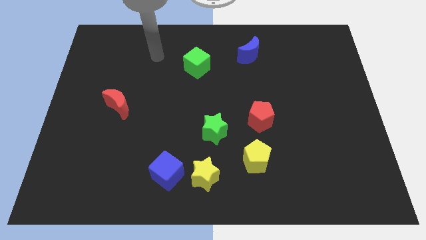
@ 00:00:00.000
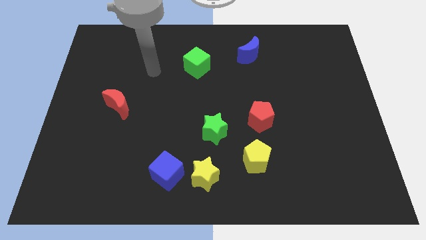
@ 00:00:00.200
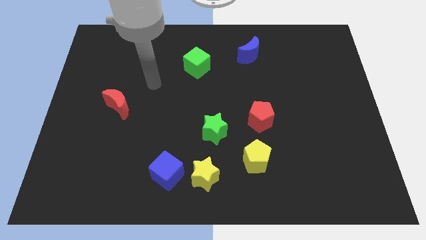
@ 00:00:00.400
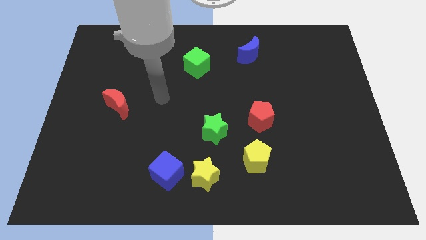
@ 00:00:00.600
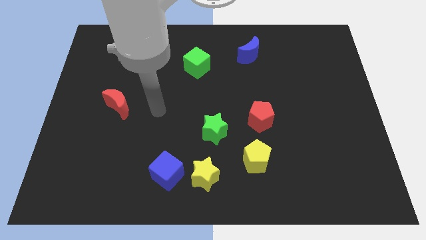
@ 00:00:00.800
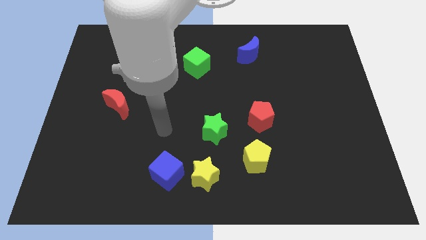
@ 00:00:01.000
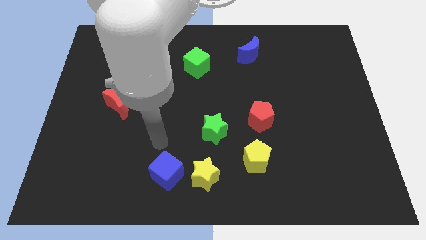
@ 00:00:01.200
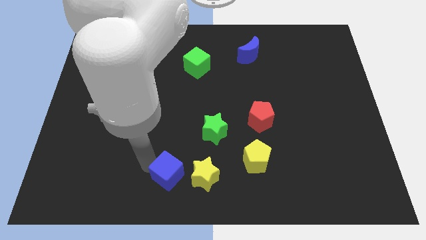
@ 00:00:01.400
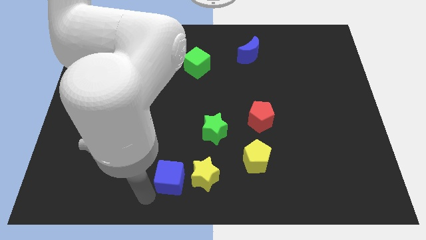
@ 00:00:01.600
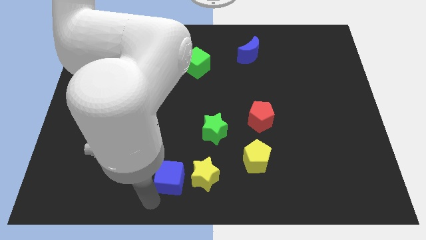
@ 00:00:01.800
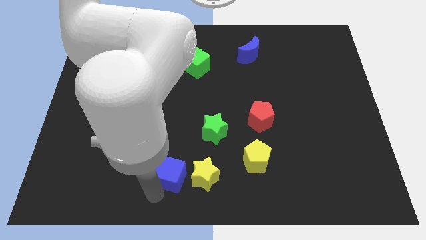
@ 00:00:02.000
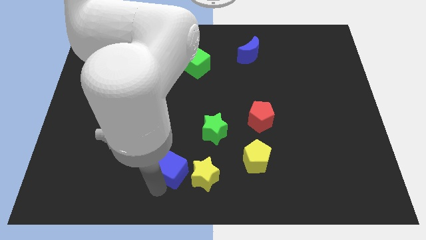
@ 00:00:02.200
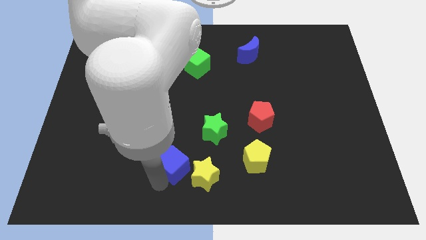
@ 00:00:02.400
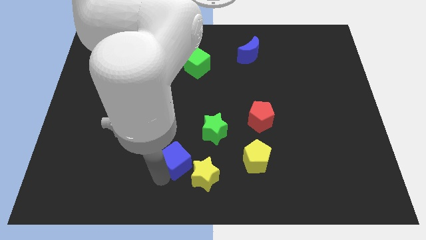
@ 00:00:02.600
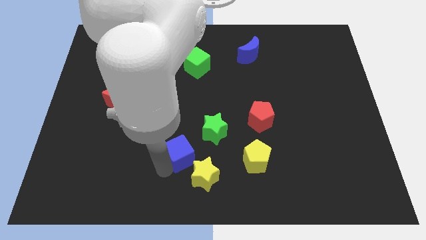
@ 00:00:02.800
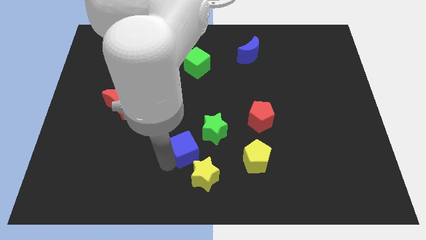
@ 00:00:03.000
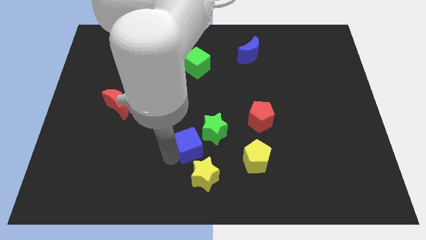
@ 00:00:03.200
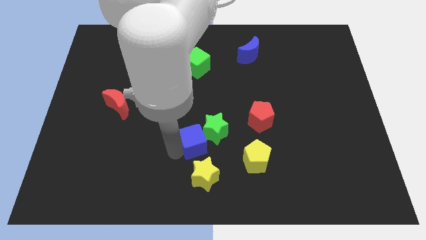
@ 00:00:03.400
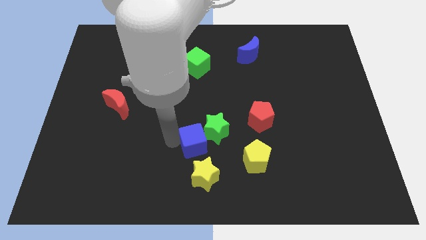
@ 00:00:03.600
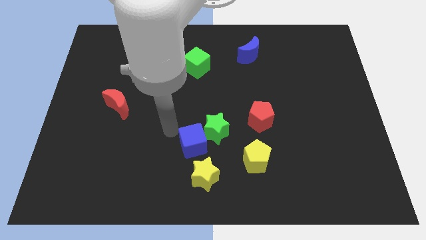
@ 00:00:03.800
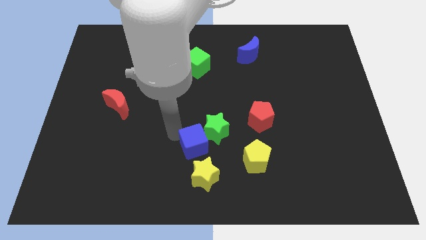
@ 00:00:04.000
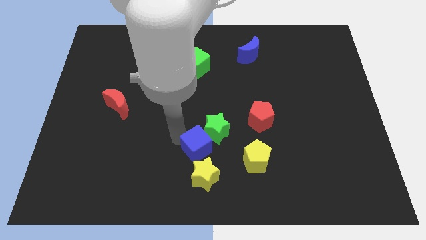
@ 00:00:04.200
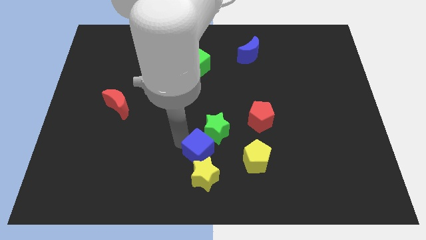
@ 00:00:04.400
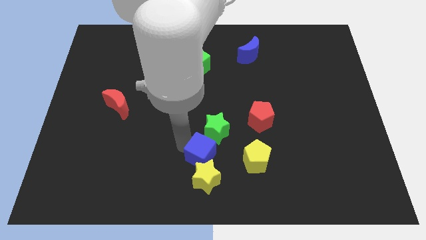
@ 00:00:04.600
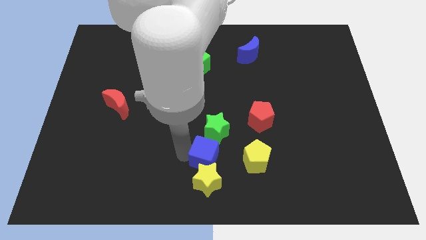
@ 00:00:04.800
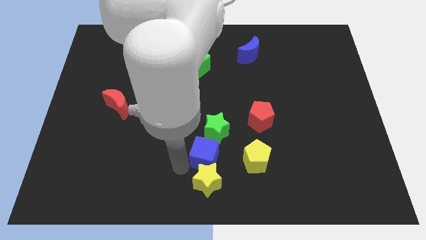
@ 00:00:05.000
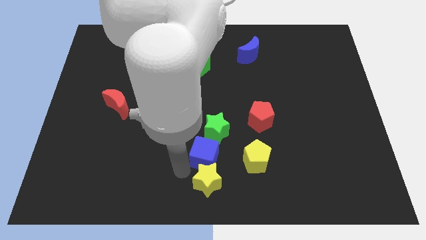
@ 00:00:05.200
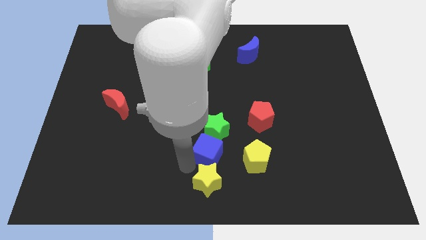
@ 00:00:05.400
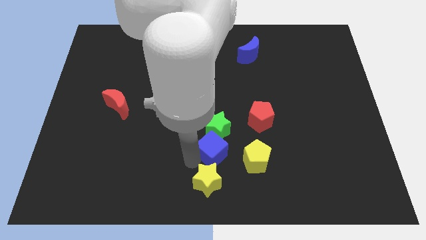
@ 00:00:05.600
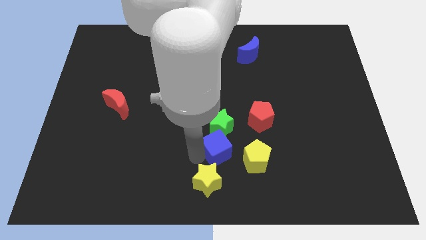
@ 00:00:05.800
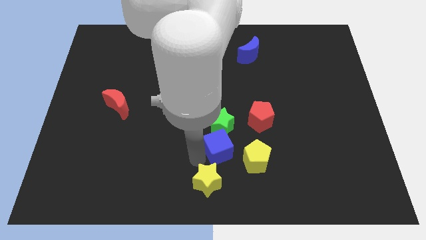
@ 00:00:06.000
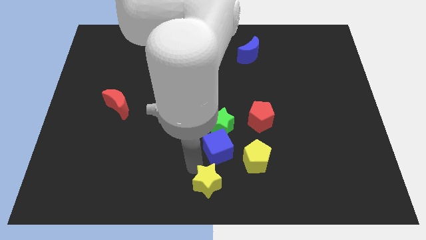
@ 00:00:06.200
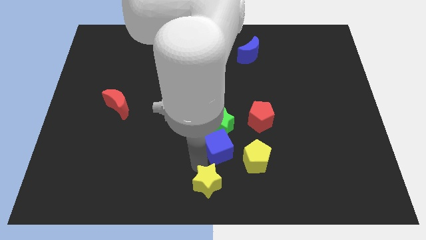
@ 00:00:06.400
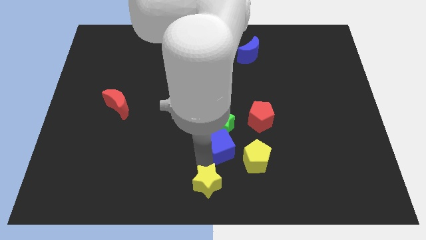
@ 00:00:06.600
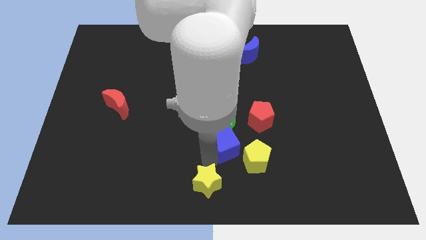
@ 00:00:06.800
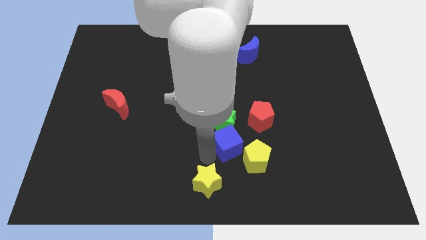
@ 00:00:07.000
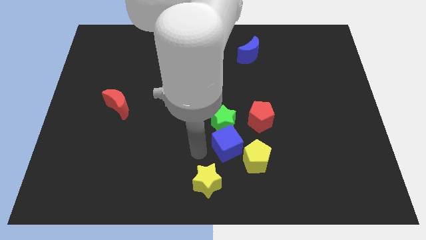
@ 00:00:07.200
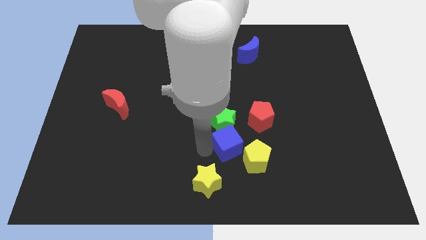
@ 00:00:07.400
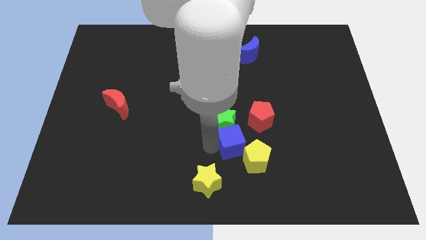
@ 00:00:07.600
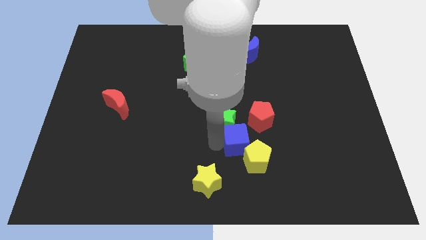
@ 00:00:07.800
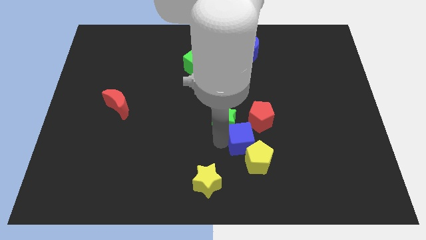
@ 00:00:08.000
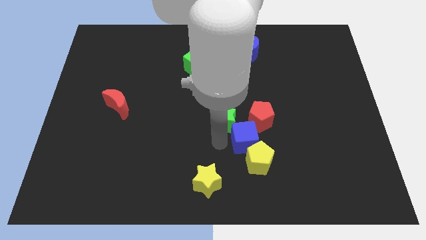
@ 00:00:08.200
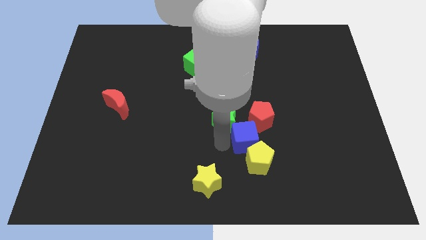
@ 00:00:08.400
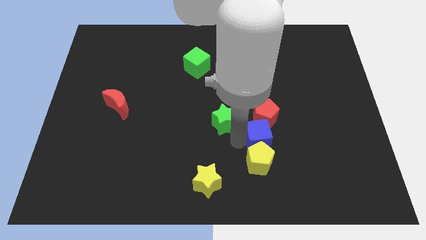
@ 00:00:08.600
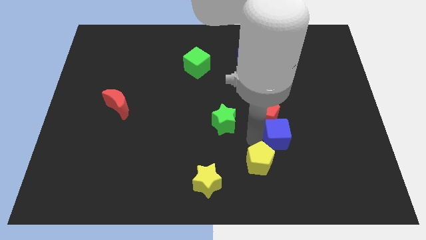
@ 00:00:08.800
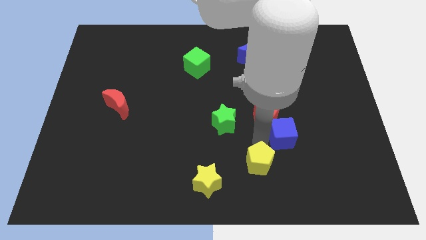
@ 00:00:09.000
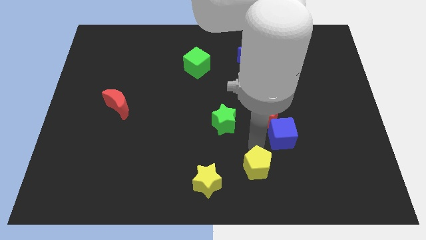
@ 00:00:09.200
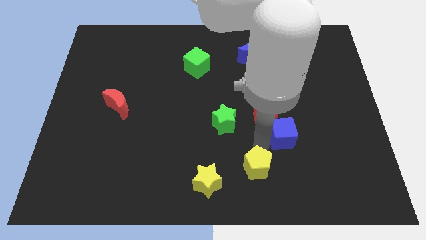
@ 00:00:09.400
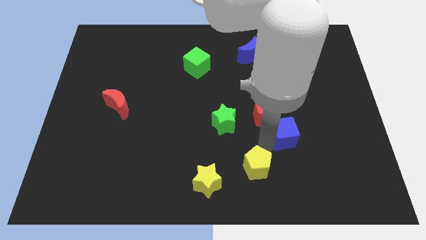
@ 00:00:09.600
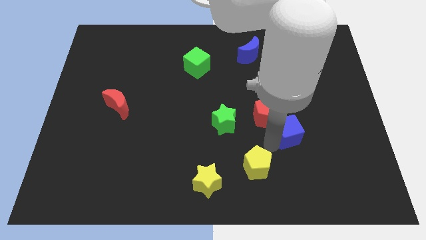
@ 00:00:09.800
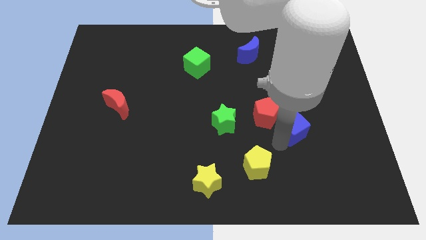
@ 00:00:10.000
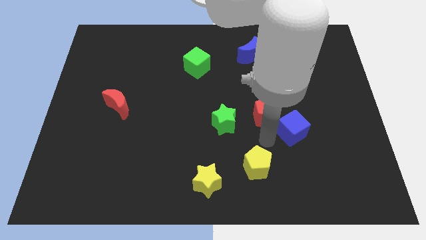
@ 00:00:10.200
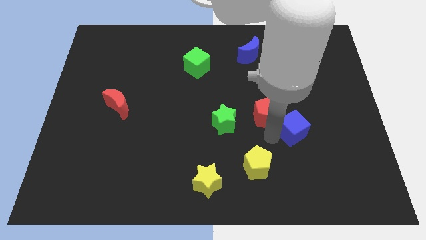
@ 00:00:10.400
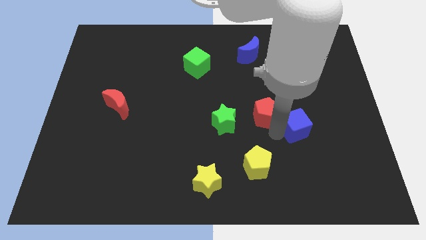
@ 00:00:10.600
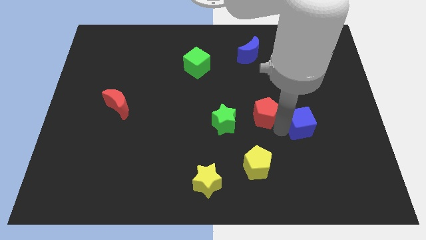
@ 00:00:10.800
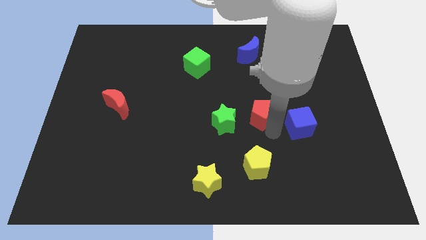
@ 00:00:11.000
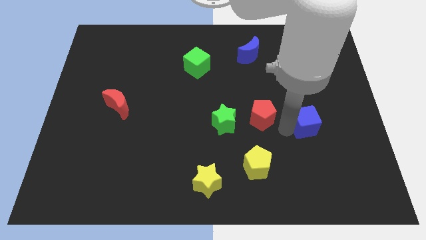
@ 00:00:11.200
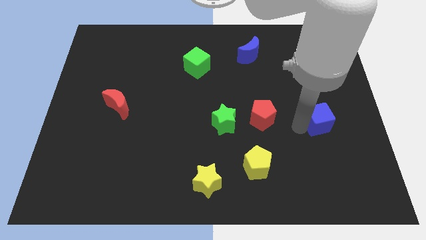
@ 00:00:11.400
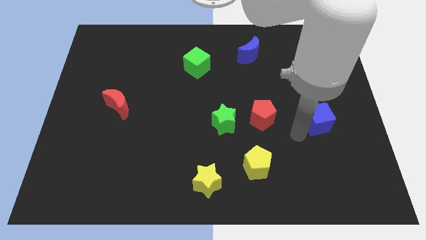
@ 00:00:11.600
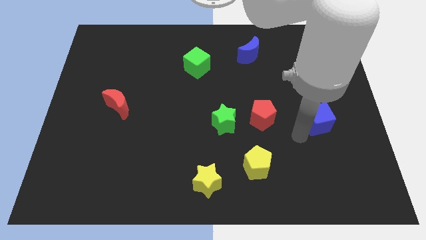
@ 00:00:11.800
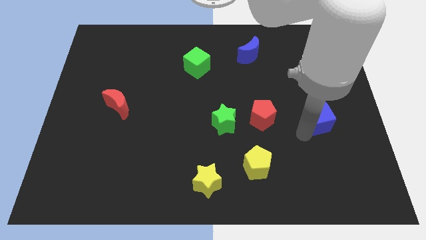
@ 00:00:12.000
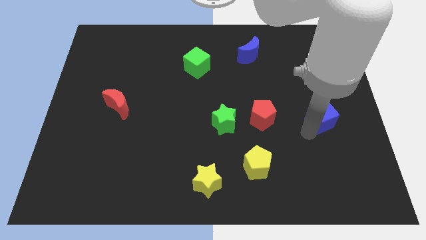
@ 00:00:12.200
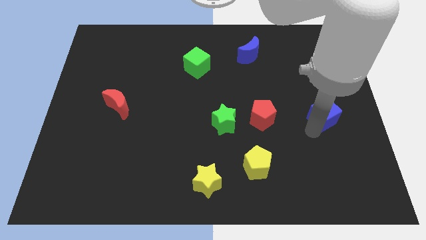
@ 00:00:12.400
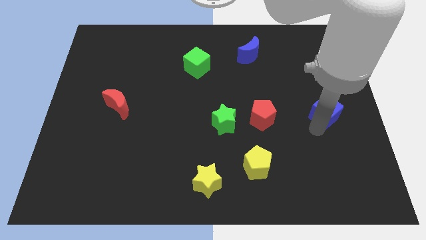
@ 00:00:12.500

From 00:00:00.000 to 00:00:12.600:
move the blue cube to the right side

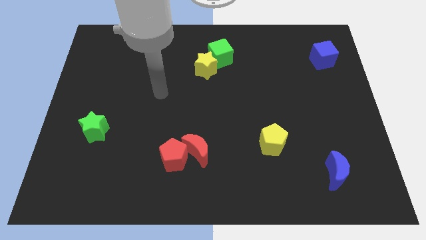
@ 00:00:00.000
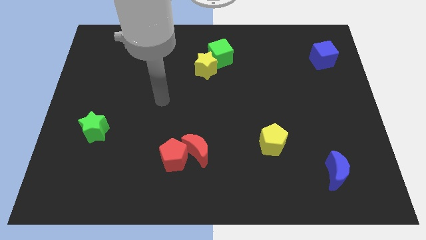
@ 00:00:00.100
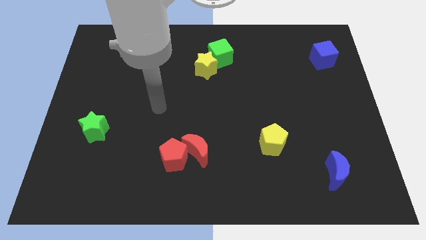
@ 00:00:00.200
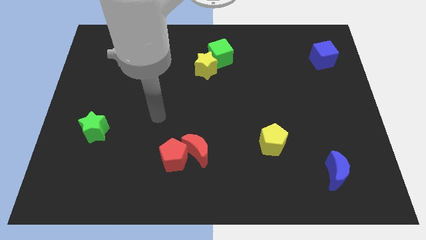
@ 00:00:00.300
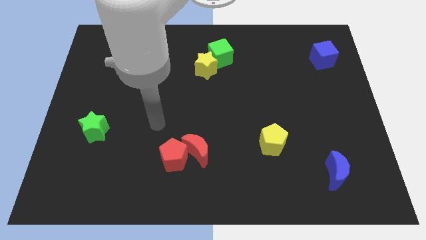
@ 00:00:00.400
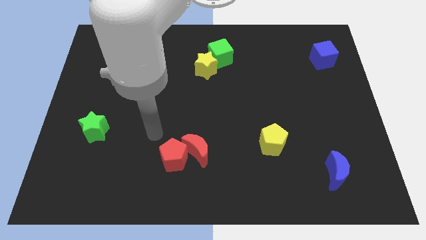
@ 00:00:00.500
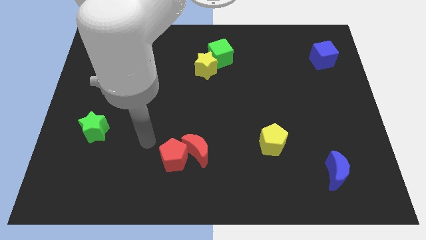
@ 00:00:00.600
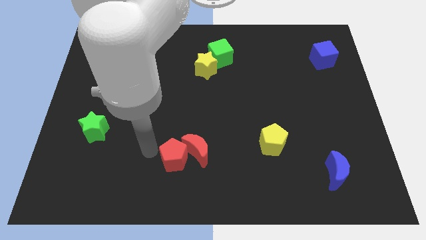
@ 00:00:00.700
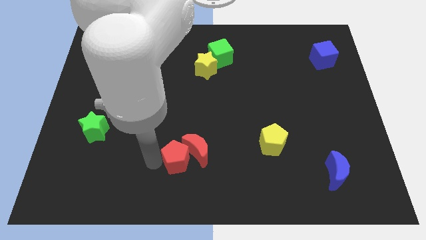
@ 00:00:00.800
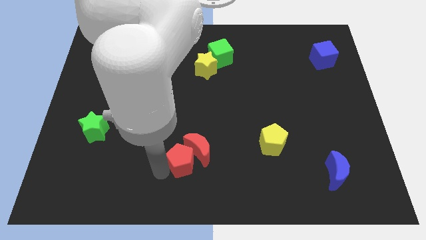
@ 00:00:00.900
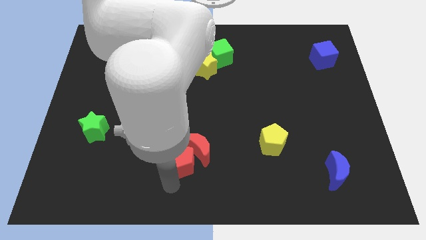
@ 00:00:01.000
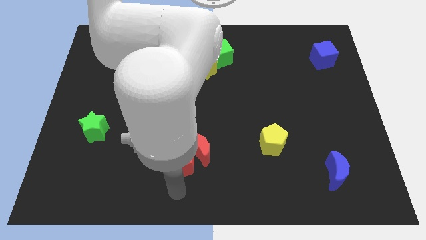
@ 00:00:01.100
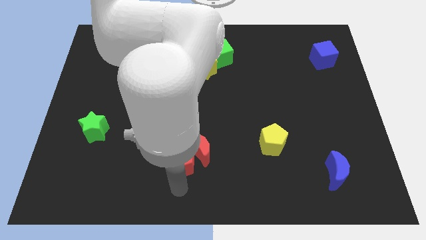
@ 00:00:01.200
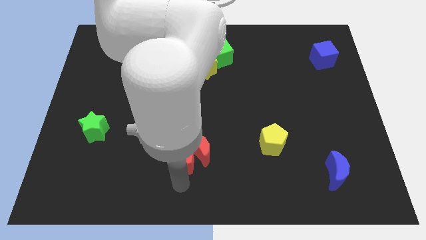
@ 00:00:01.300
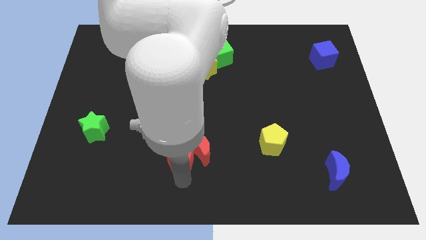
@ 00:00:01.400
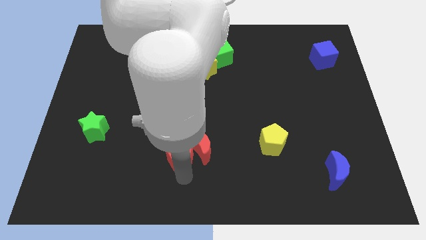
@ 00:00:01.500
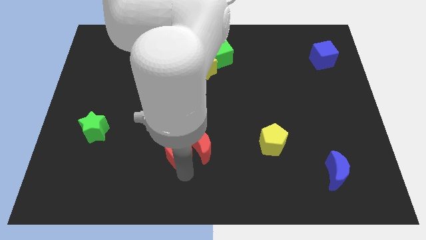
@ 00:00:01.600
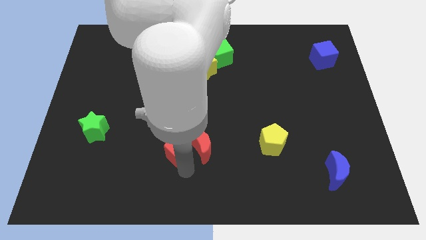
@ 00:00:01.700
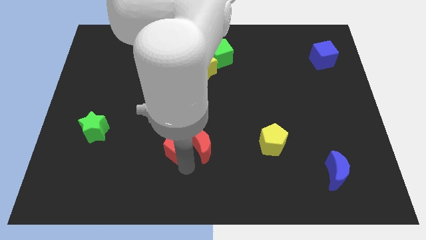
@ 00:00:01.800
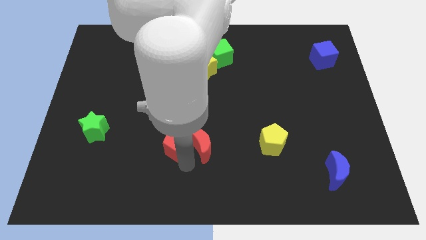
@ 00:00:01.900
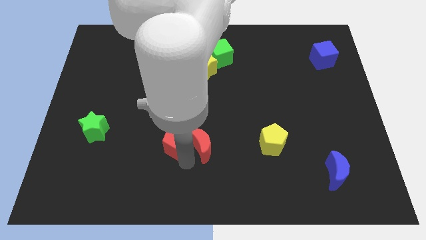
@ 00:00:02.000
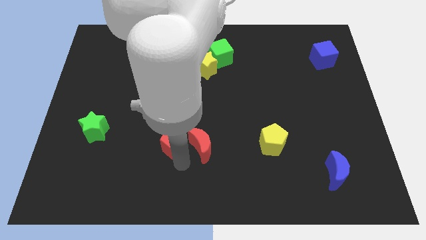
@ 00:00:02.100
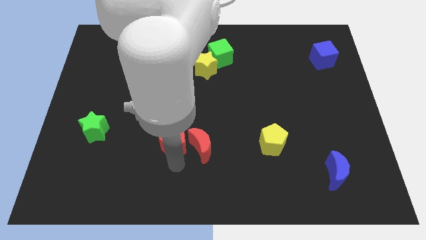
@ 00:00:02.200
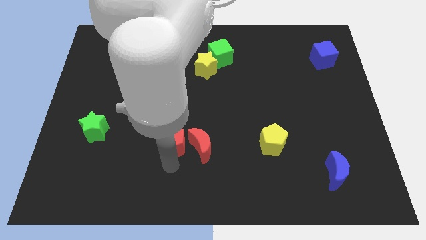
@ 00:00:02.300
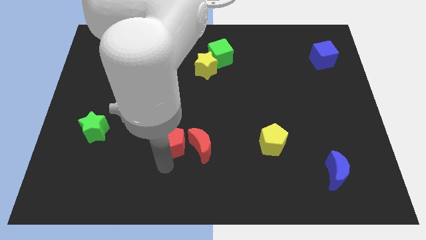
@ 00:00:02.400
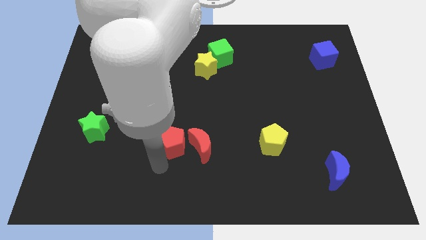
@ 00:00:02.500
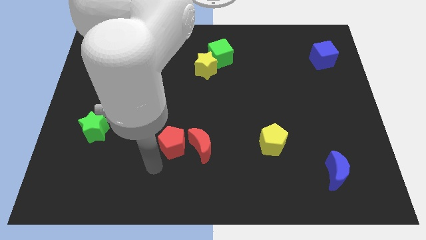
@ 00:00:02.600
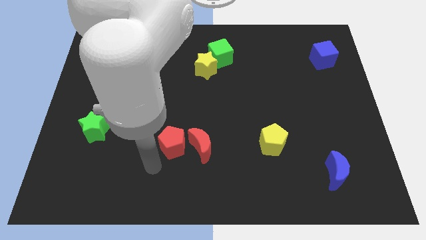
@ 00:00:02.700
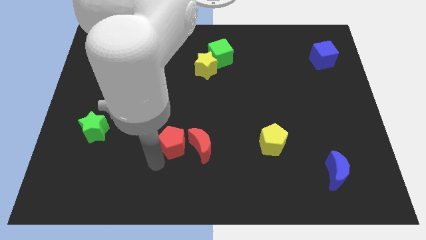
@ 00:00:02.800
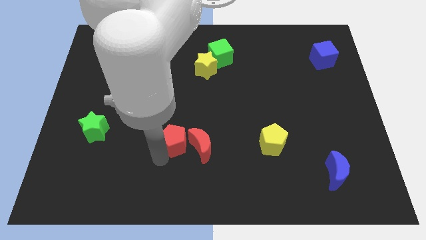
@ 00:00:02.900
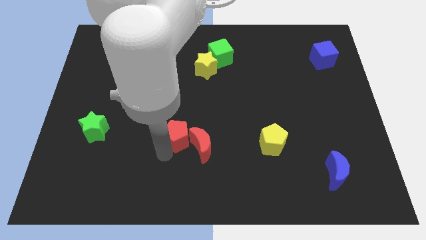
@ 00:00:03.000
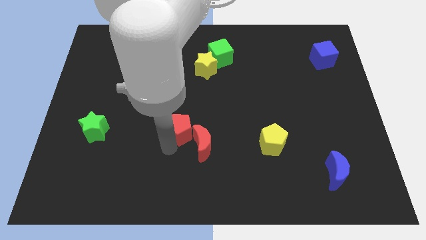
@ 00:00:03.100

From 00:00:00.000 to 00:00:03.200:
move the red pentagon to the middle of the board
